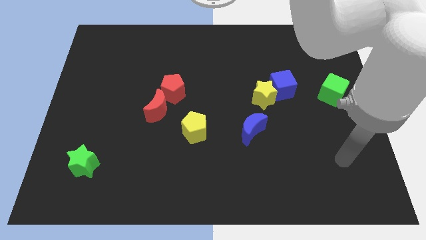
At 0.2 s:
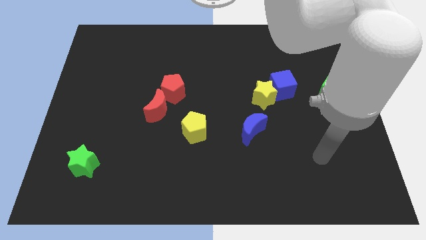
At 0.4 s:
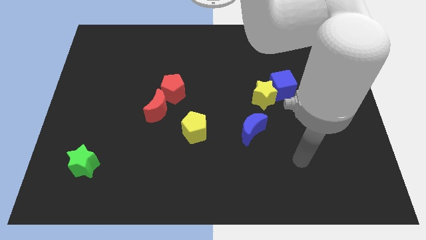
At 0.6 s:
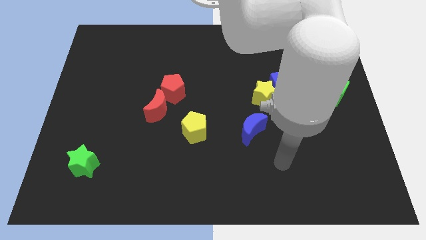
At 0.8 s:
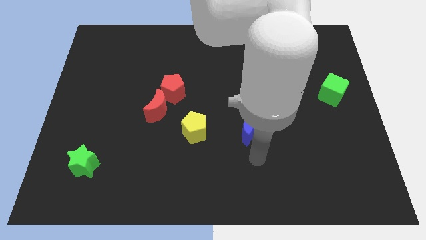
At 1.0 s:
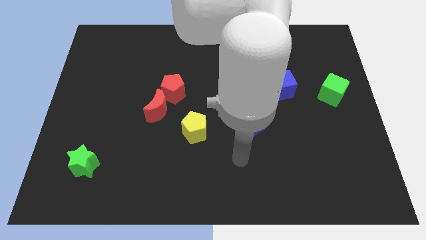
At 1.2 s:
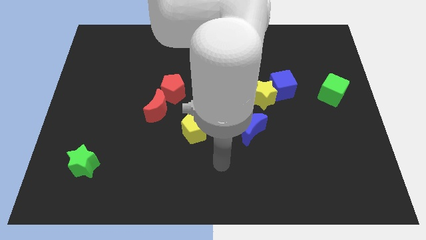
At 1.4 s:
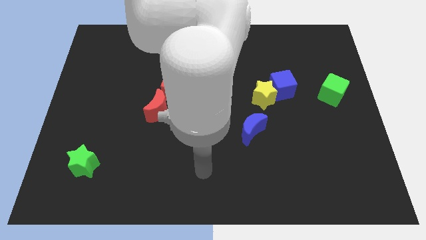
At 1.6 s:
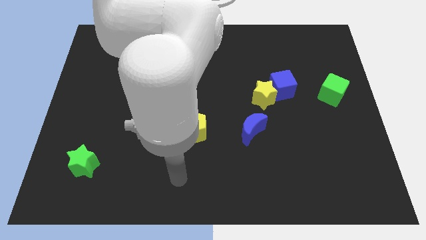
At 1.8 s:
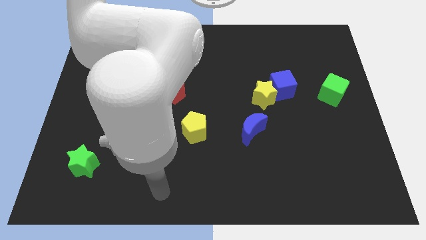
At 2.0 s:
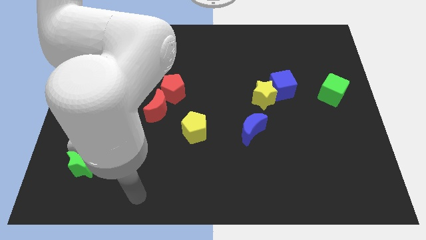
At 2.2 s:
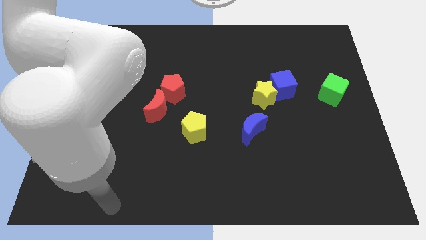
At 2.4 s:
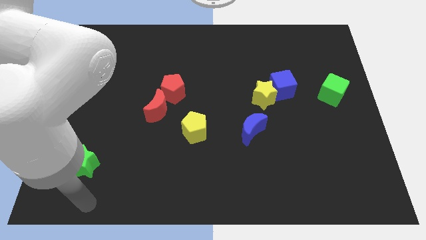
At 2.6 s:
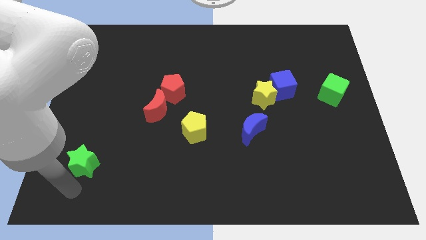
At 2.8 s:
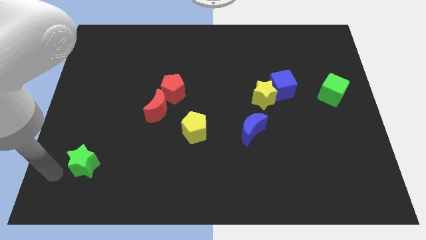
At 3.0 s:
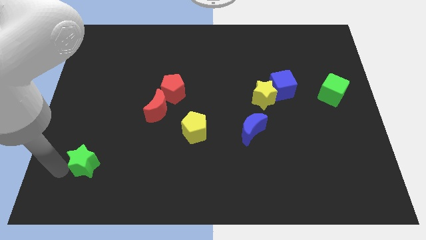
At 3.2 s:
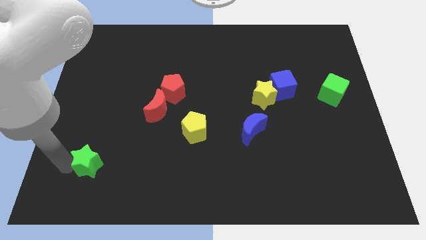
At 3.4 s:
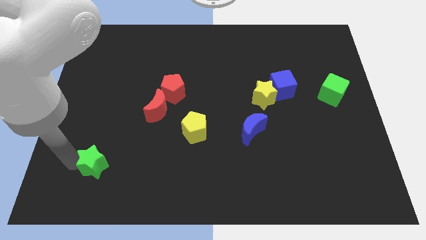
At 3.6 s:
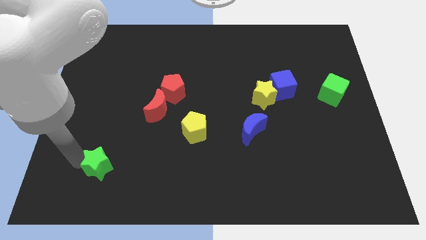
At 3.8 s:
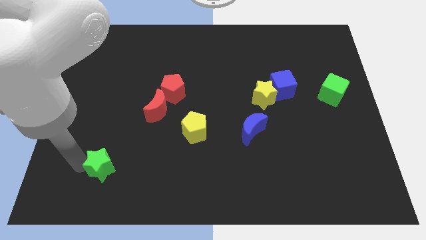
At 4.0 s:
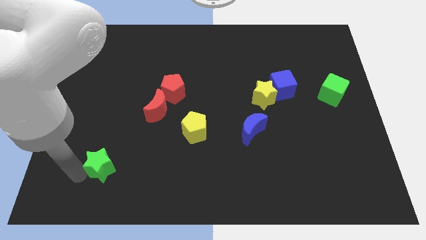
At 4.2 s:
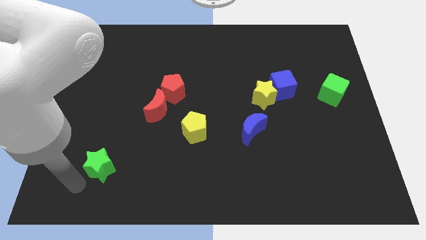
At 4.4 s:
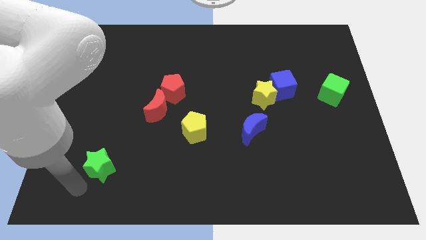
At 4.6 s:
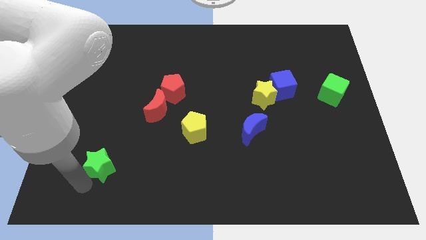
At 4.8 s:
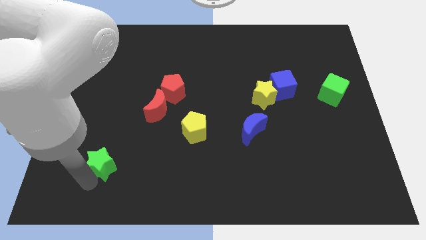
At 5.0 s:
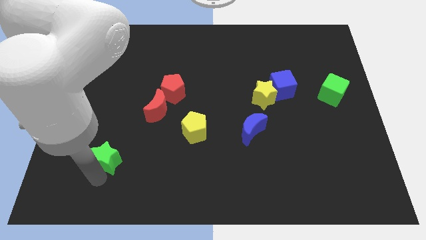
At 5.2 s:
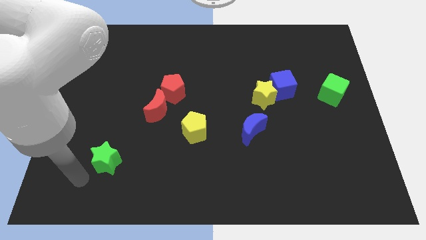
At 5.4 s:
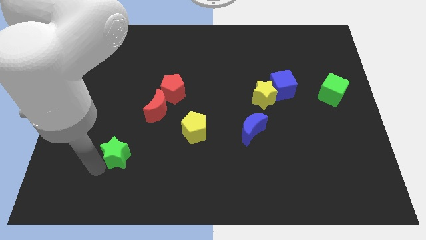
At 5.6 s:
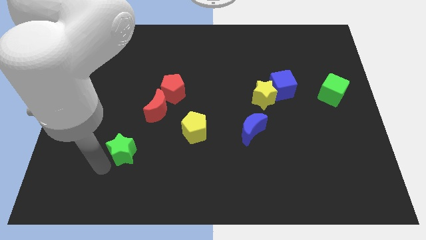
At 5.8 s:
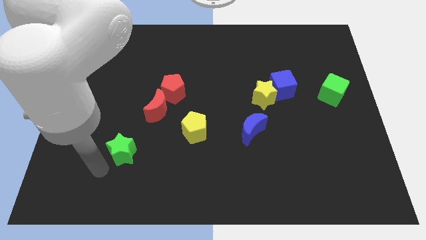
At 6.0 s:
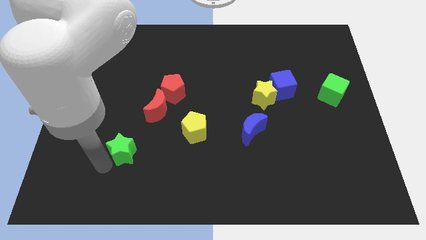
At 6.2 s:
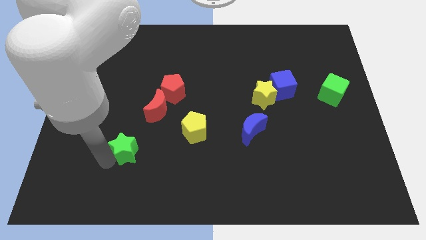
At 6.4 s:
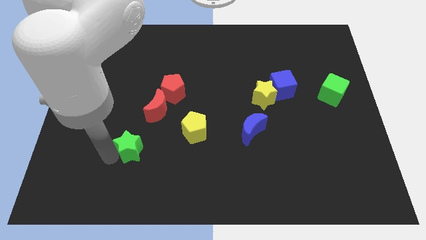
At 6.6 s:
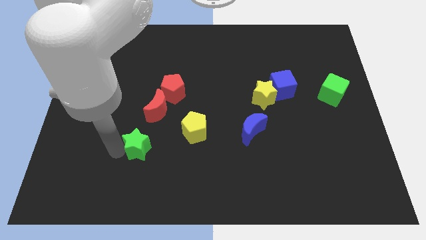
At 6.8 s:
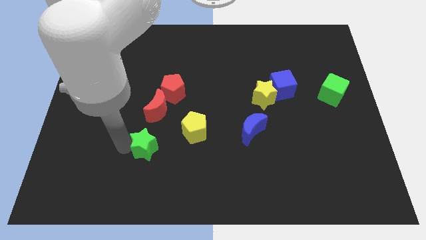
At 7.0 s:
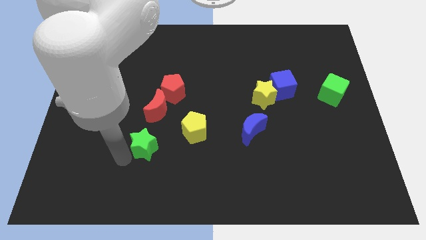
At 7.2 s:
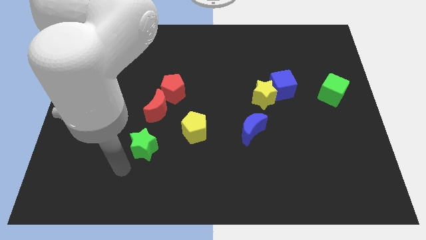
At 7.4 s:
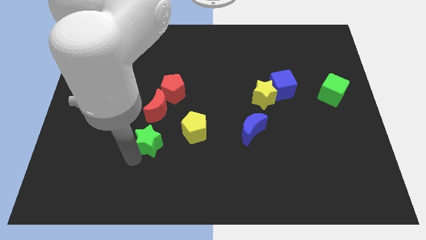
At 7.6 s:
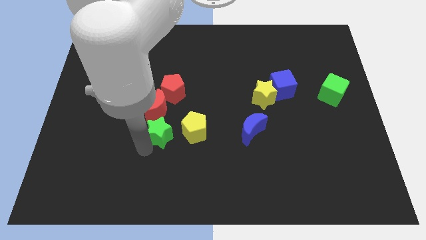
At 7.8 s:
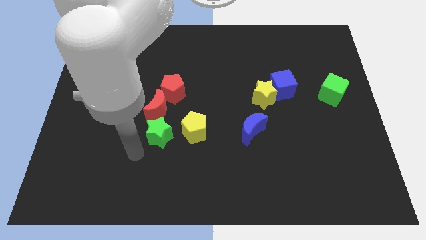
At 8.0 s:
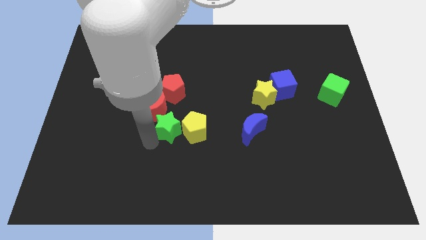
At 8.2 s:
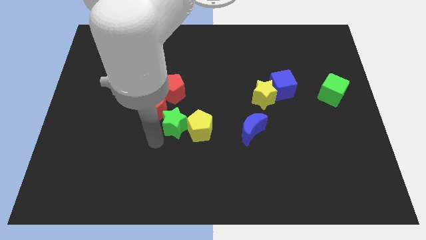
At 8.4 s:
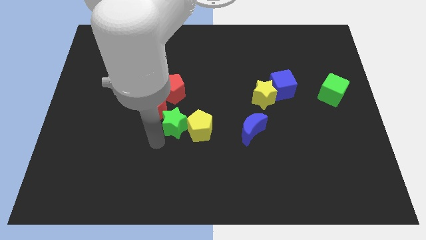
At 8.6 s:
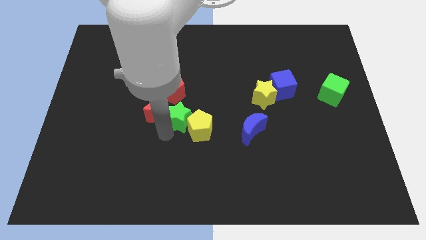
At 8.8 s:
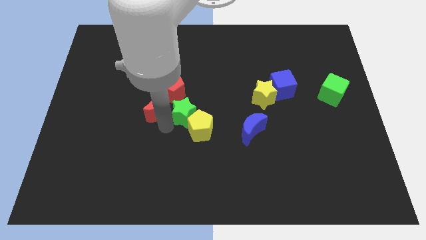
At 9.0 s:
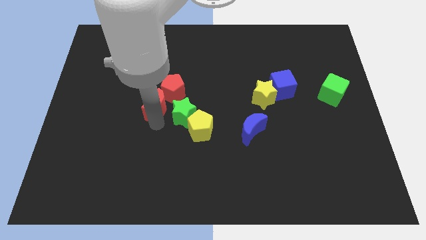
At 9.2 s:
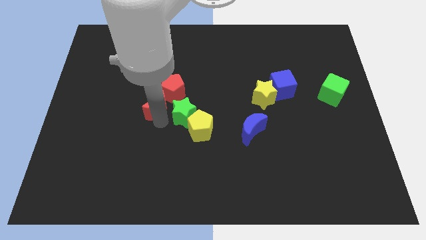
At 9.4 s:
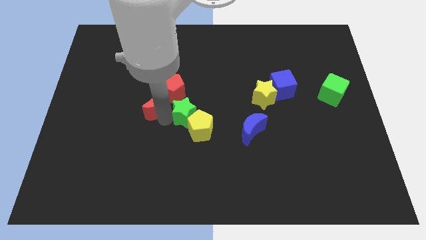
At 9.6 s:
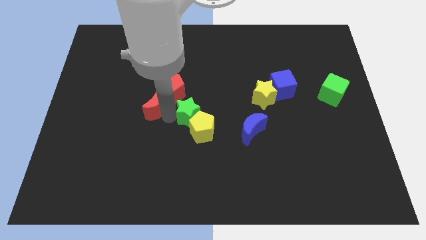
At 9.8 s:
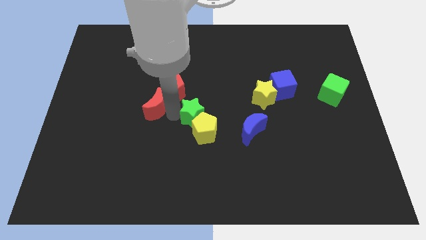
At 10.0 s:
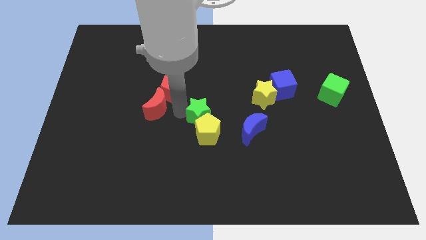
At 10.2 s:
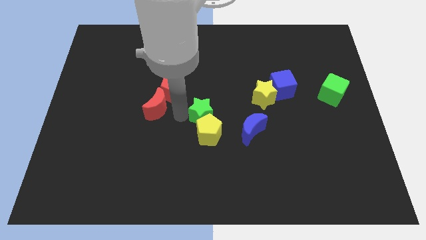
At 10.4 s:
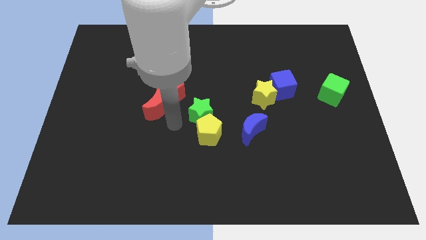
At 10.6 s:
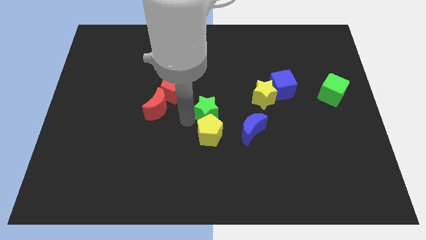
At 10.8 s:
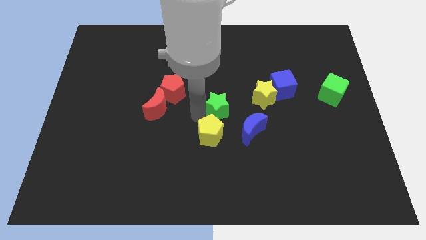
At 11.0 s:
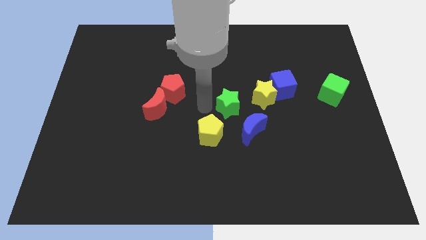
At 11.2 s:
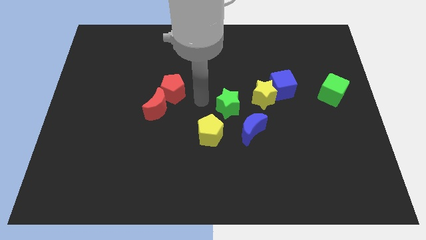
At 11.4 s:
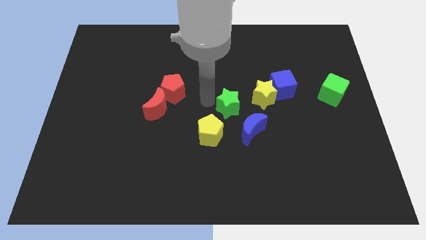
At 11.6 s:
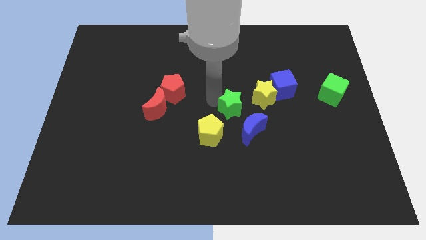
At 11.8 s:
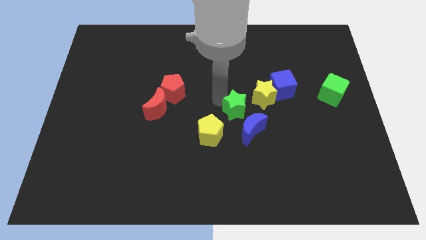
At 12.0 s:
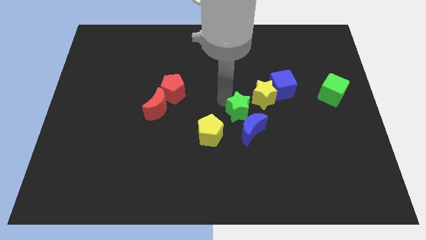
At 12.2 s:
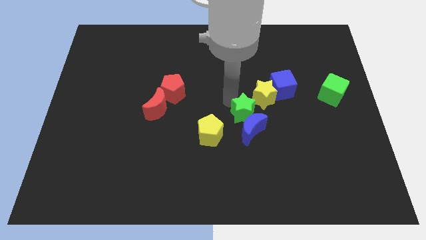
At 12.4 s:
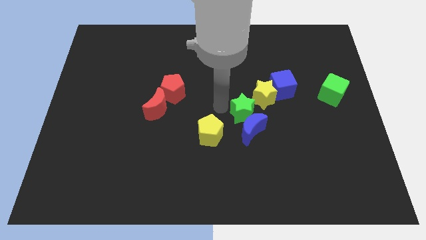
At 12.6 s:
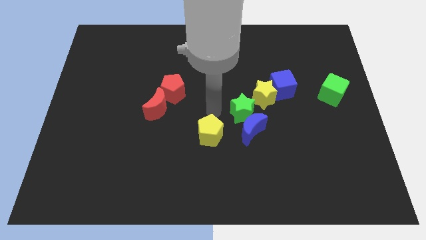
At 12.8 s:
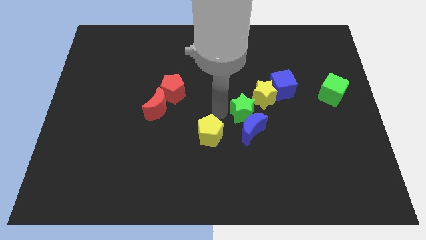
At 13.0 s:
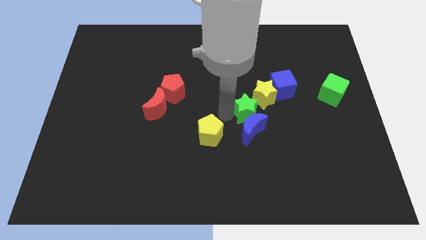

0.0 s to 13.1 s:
put the green star to the top right side of the blue moon
